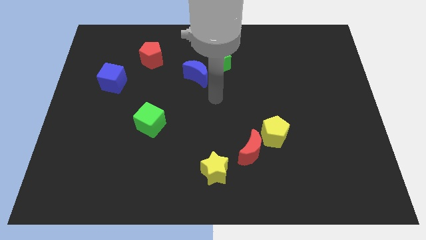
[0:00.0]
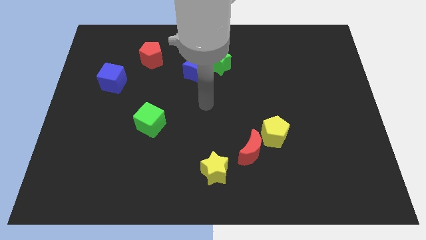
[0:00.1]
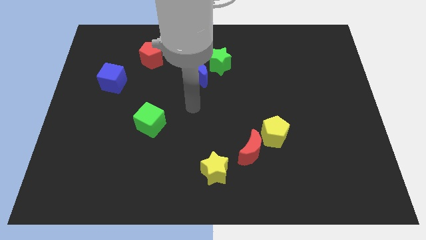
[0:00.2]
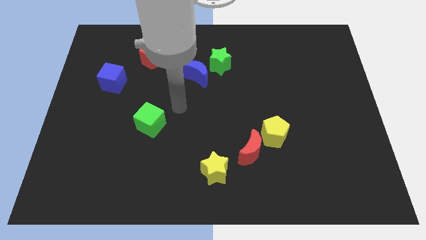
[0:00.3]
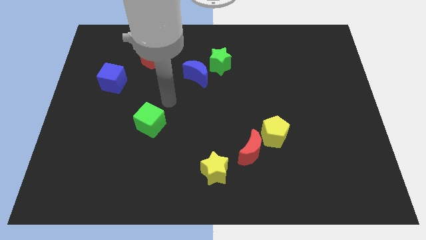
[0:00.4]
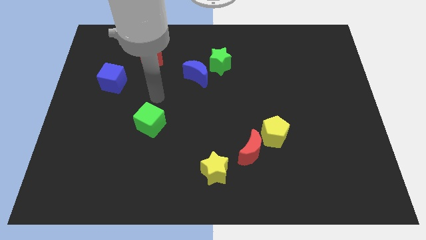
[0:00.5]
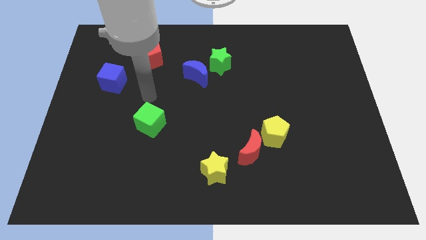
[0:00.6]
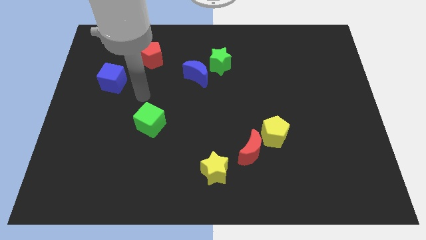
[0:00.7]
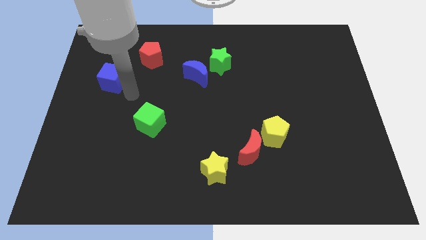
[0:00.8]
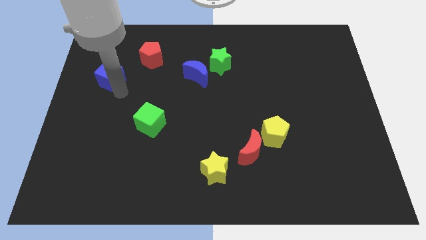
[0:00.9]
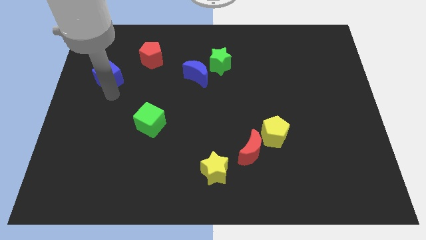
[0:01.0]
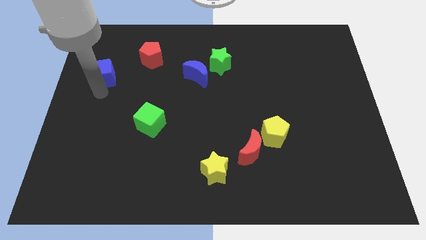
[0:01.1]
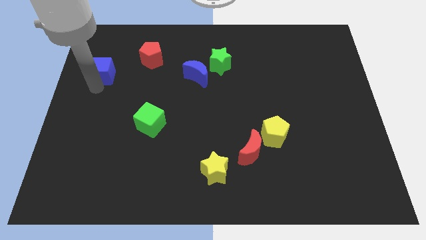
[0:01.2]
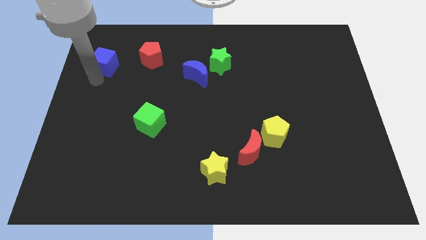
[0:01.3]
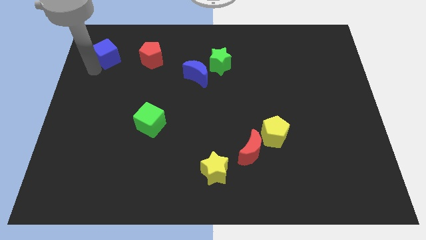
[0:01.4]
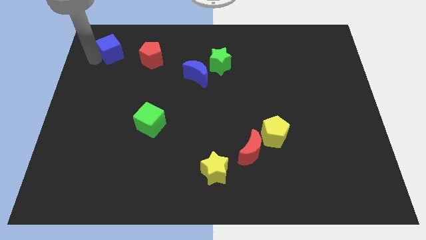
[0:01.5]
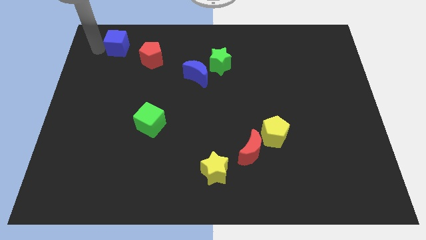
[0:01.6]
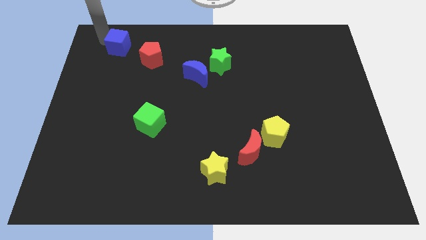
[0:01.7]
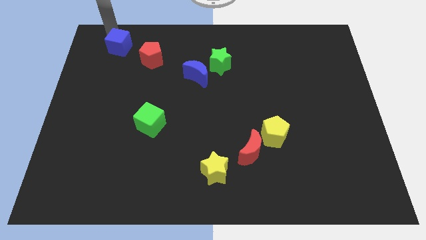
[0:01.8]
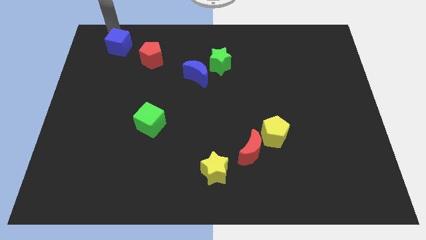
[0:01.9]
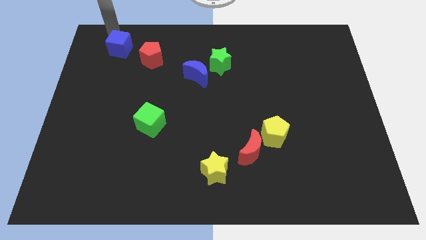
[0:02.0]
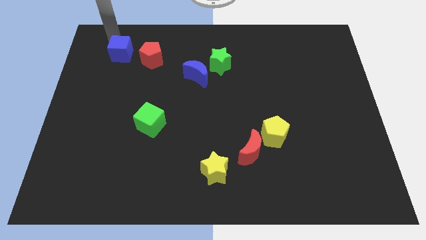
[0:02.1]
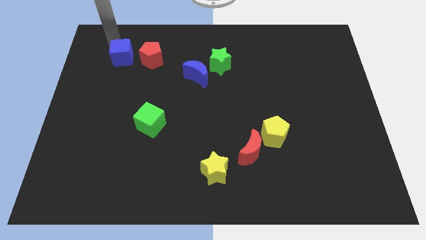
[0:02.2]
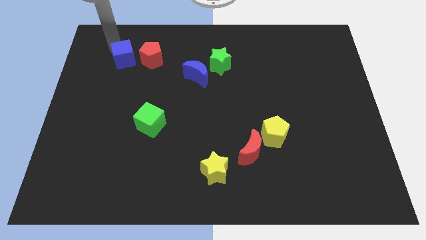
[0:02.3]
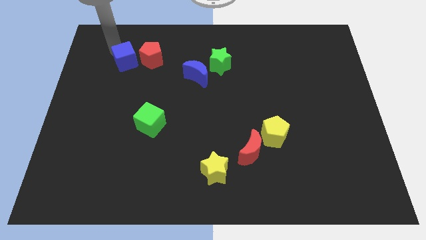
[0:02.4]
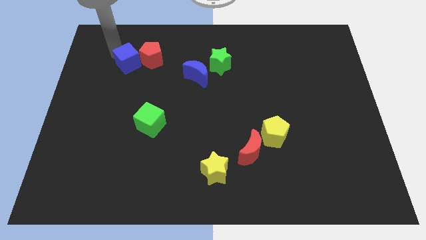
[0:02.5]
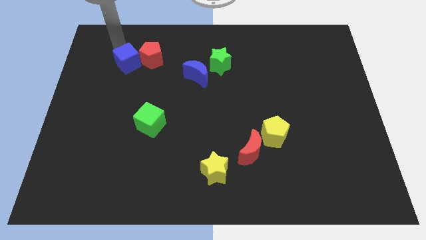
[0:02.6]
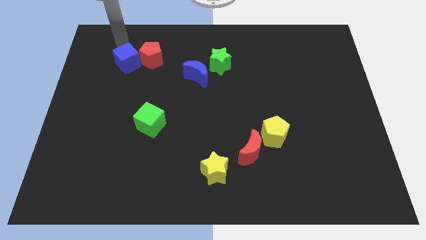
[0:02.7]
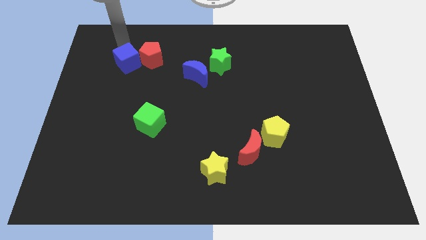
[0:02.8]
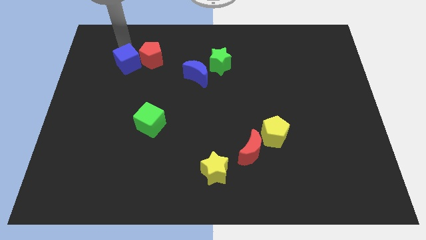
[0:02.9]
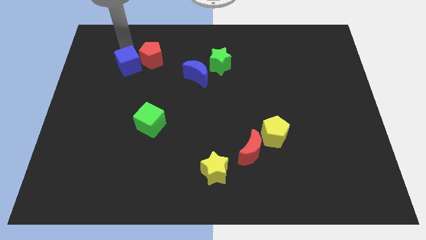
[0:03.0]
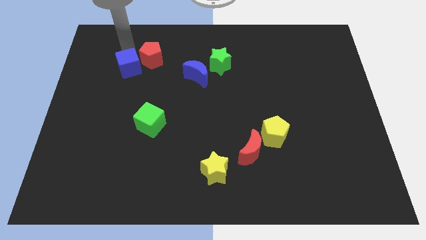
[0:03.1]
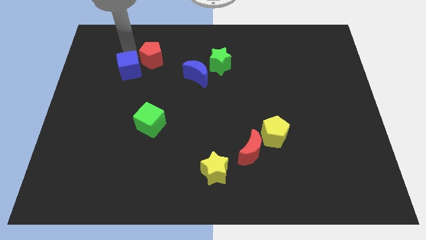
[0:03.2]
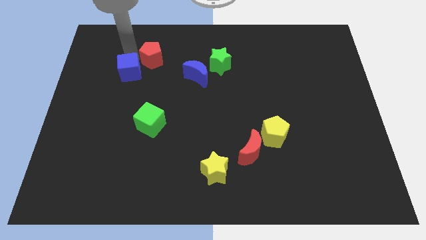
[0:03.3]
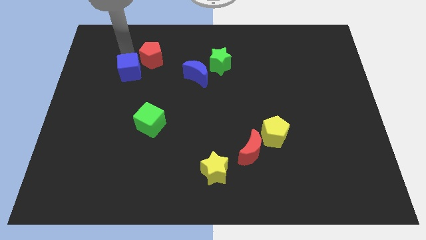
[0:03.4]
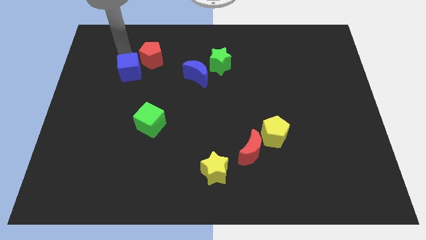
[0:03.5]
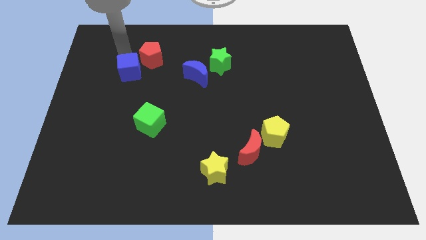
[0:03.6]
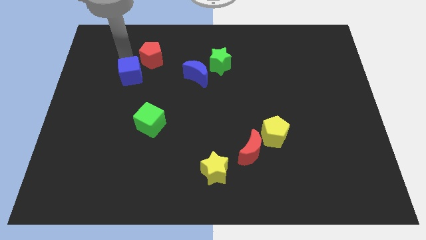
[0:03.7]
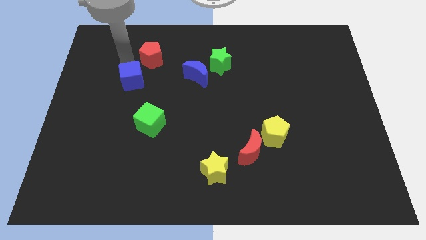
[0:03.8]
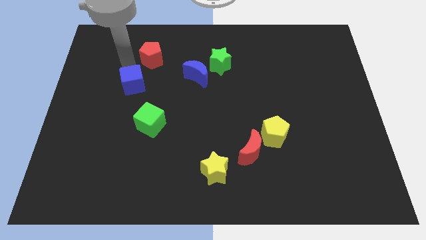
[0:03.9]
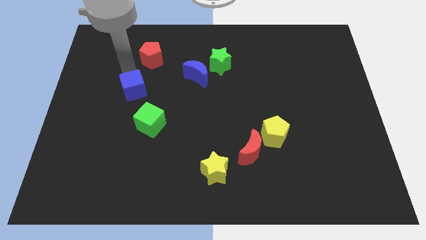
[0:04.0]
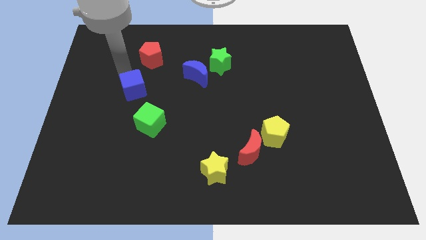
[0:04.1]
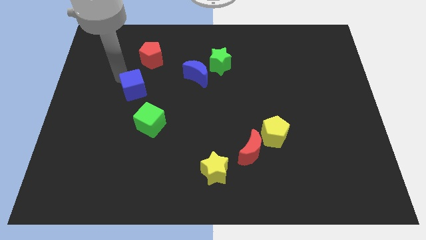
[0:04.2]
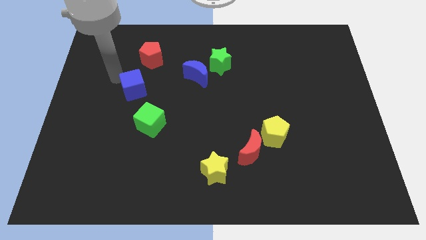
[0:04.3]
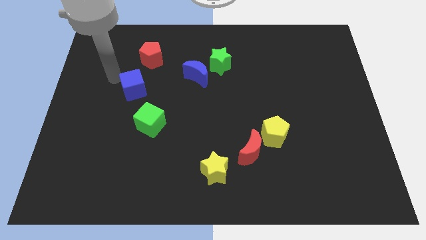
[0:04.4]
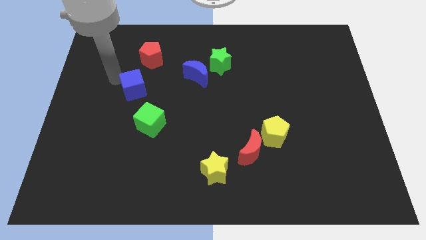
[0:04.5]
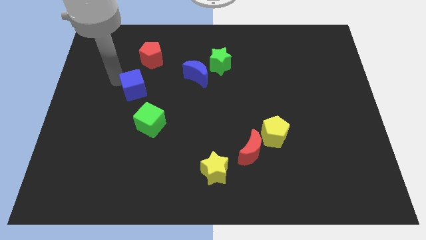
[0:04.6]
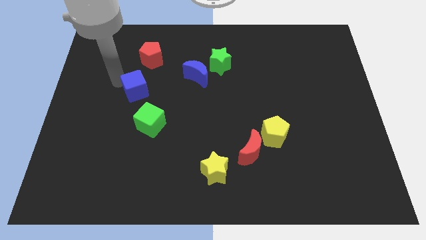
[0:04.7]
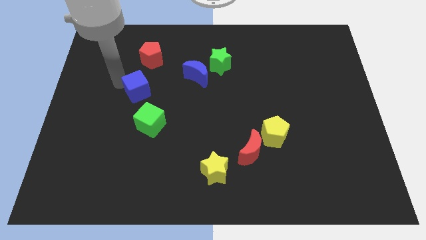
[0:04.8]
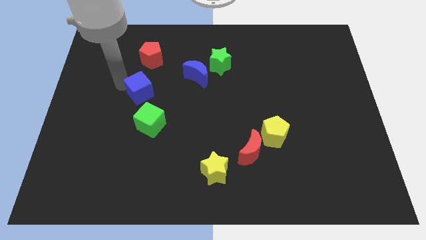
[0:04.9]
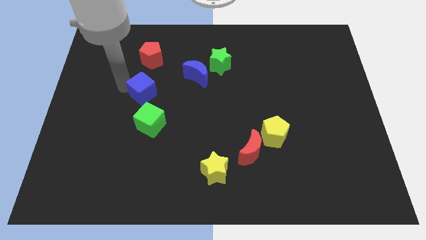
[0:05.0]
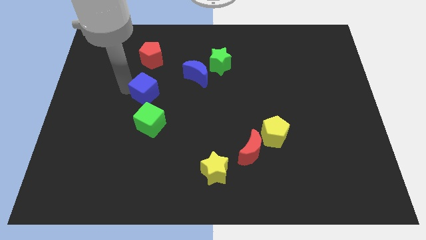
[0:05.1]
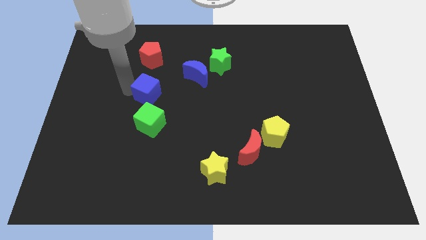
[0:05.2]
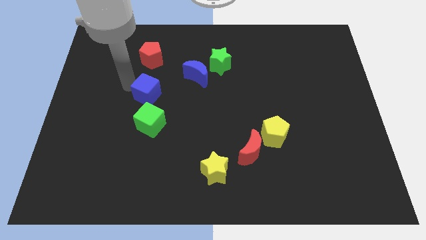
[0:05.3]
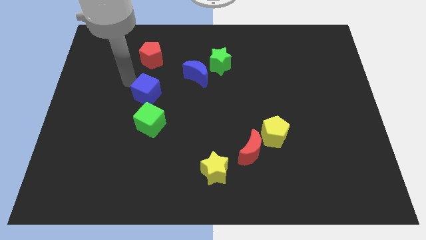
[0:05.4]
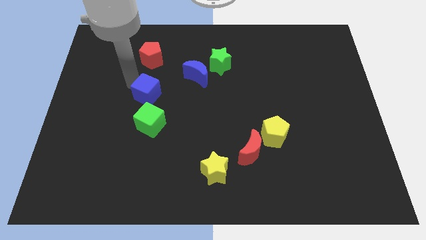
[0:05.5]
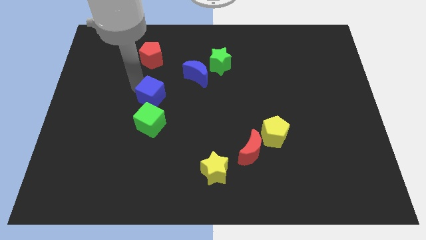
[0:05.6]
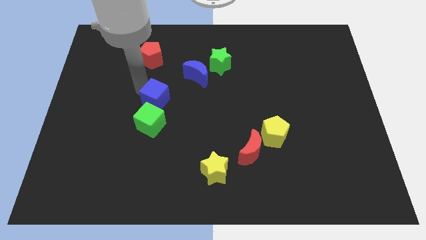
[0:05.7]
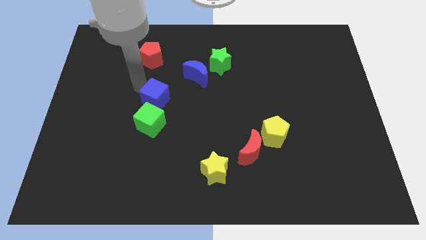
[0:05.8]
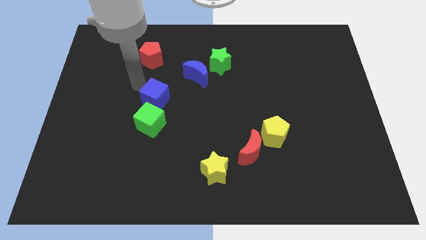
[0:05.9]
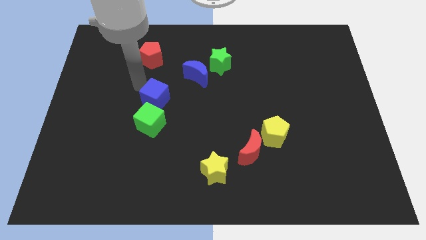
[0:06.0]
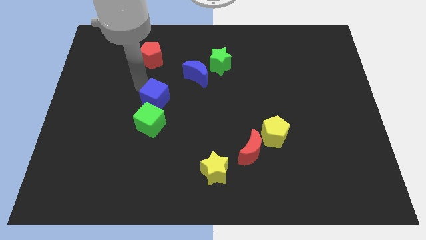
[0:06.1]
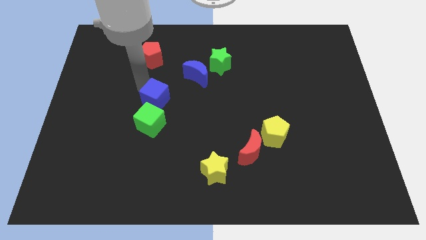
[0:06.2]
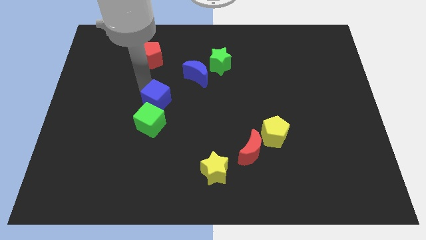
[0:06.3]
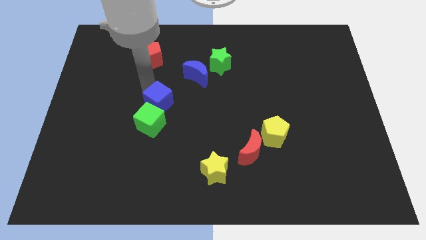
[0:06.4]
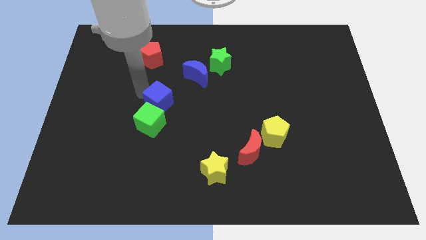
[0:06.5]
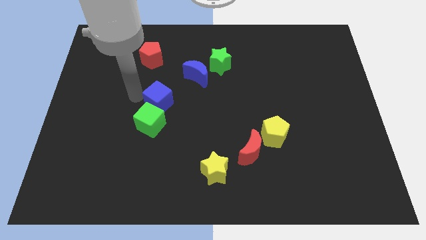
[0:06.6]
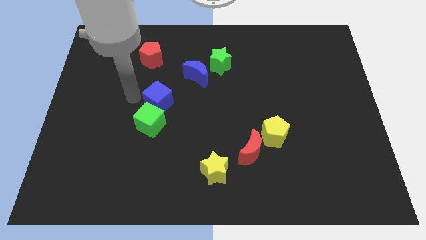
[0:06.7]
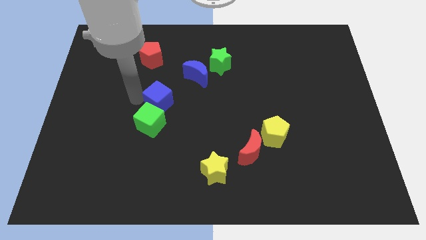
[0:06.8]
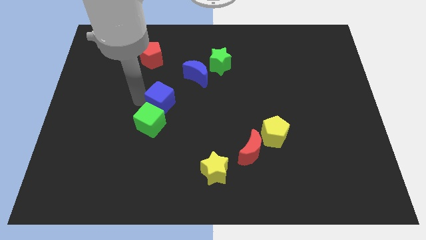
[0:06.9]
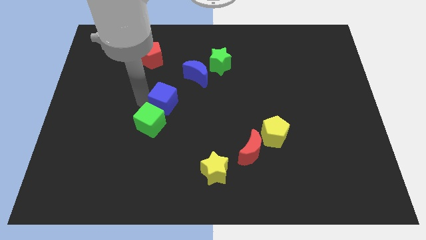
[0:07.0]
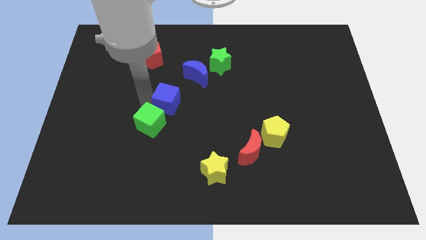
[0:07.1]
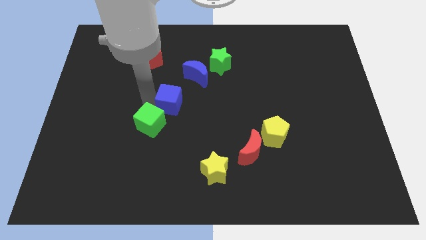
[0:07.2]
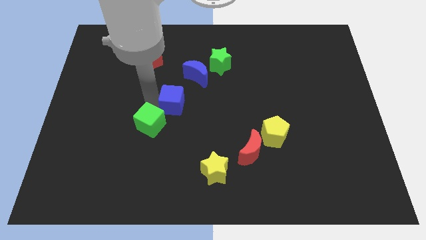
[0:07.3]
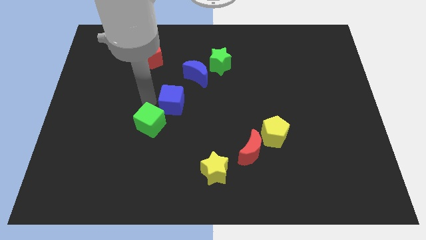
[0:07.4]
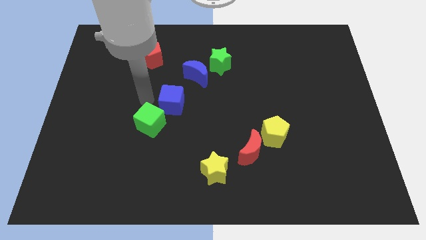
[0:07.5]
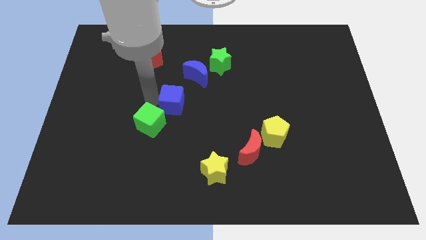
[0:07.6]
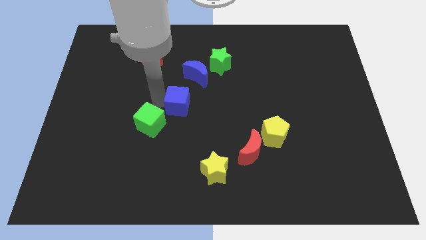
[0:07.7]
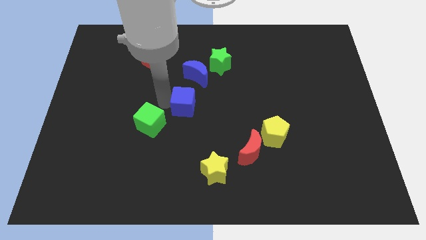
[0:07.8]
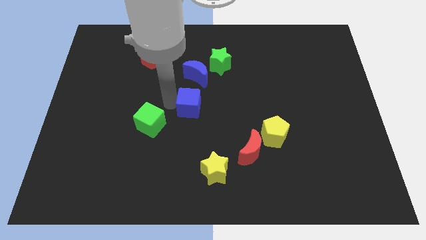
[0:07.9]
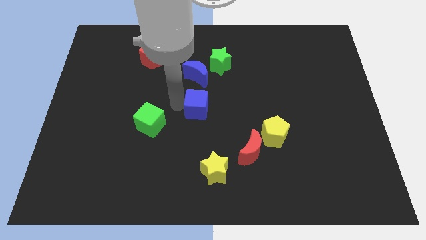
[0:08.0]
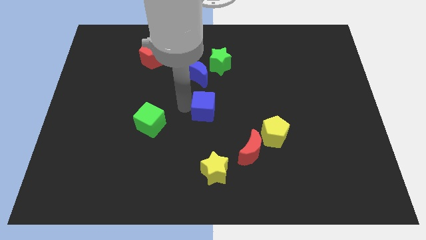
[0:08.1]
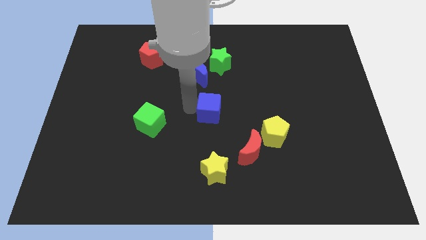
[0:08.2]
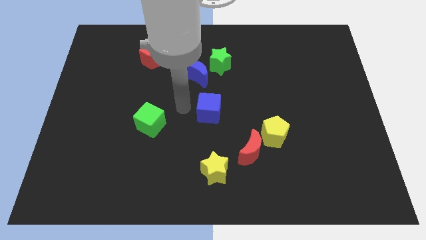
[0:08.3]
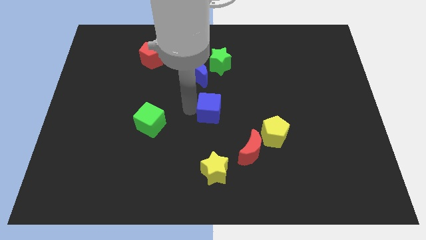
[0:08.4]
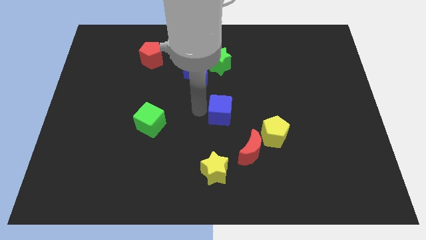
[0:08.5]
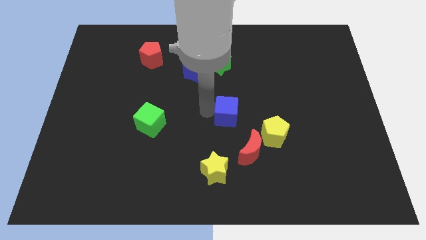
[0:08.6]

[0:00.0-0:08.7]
put the blue cube to the top left of the yellow pentagon
